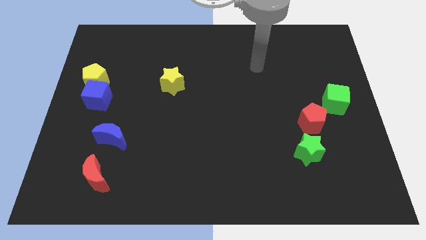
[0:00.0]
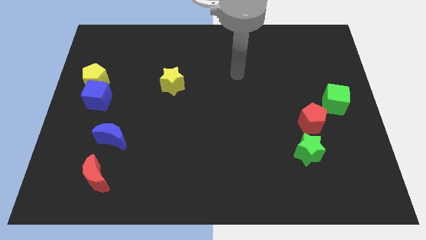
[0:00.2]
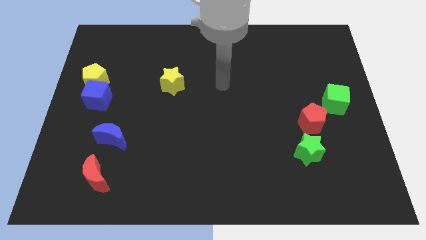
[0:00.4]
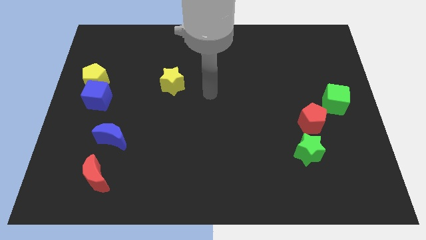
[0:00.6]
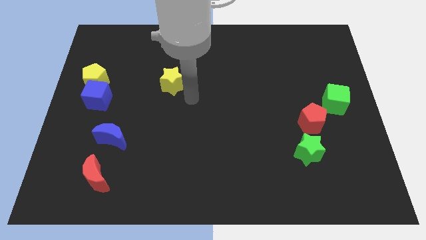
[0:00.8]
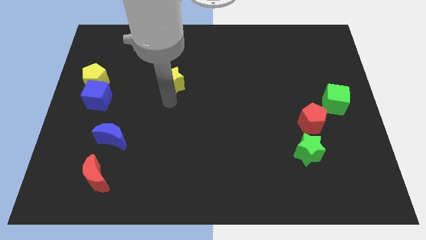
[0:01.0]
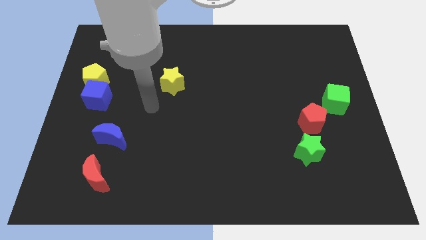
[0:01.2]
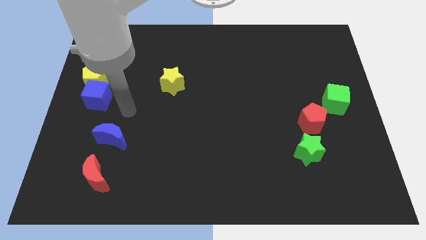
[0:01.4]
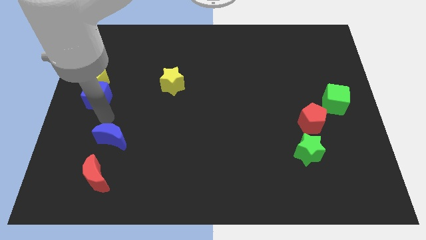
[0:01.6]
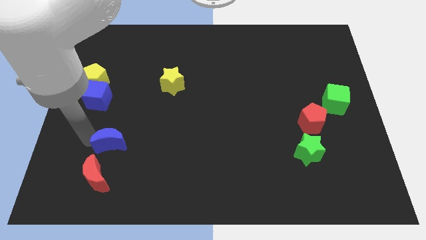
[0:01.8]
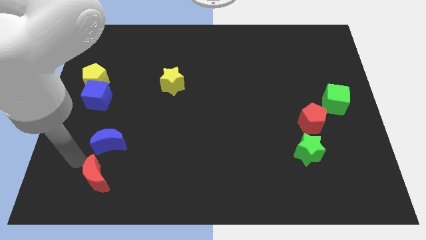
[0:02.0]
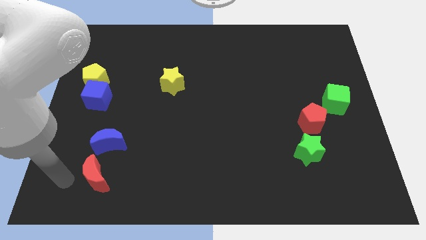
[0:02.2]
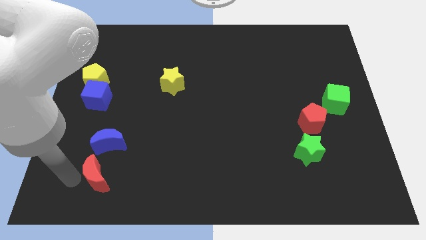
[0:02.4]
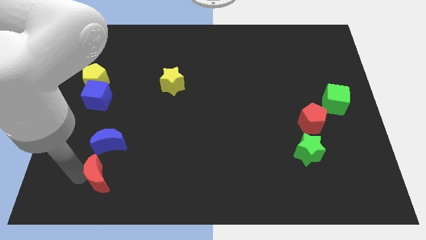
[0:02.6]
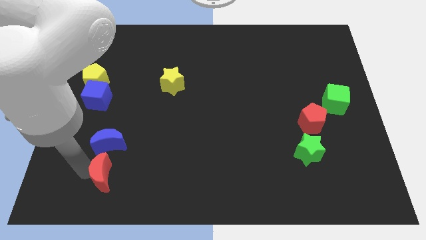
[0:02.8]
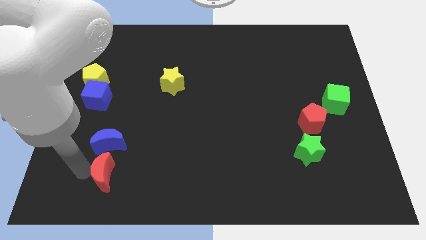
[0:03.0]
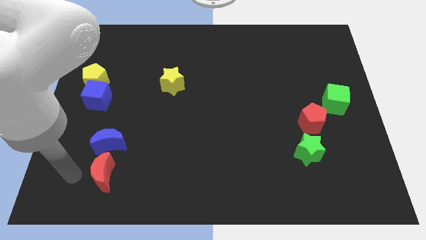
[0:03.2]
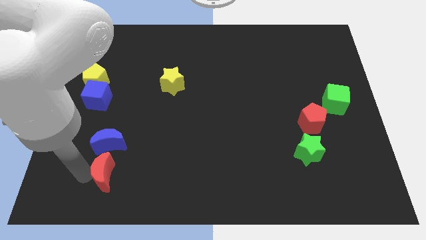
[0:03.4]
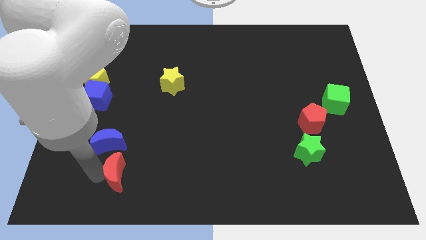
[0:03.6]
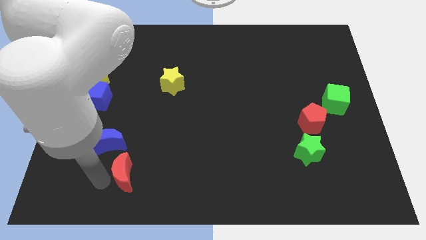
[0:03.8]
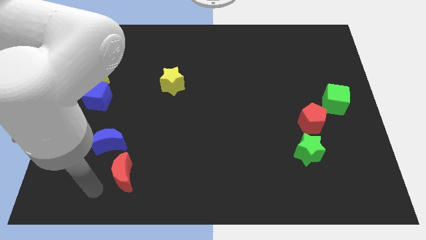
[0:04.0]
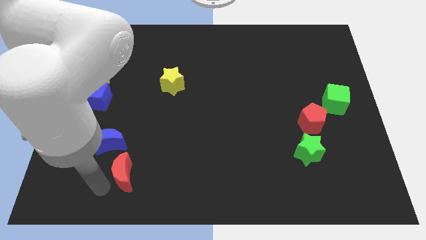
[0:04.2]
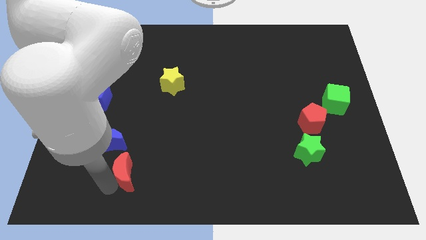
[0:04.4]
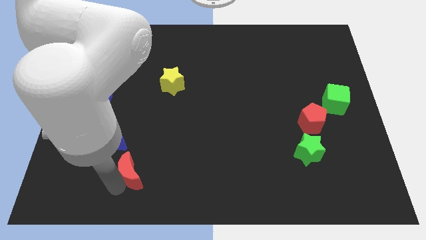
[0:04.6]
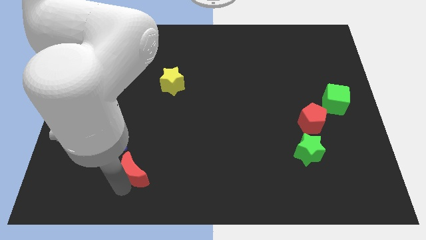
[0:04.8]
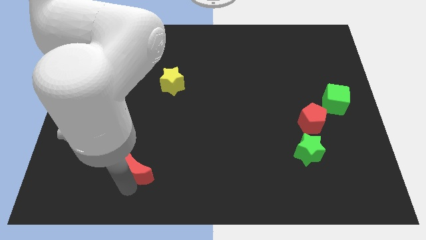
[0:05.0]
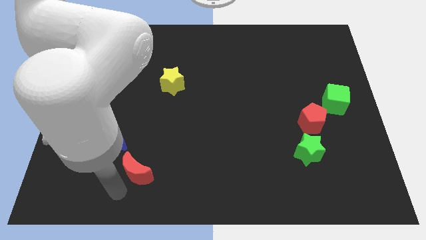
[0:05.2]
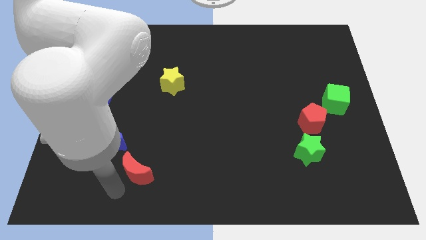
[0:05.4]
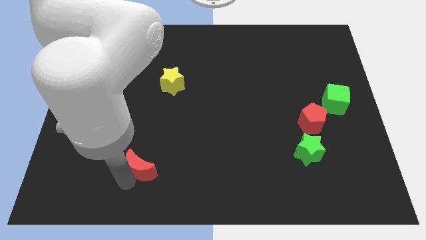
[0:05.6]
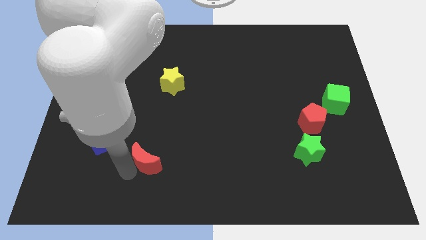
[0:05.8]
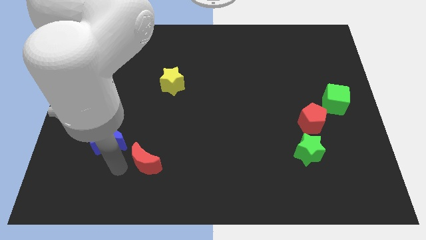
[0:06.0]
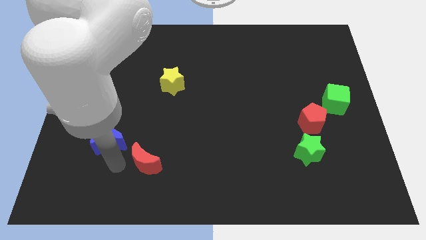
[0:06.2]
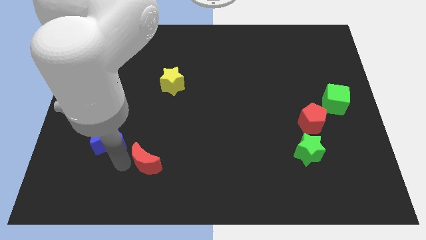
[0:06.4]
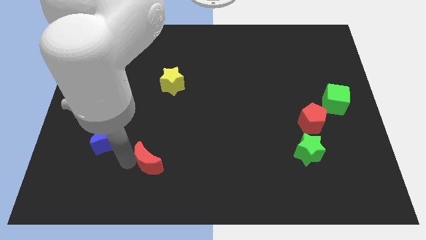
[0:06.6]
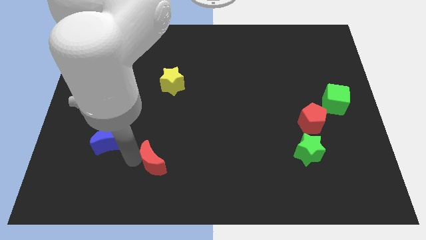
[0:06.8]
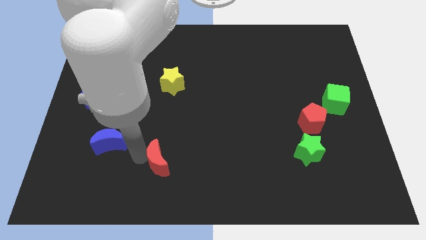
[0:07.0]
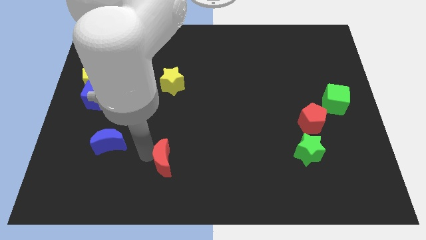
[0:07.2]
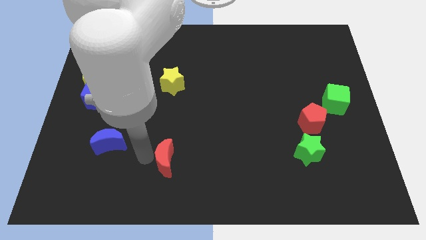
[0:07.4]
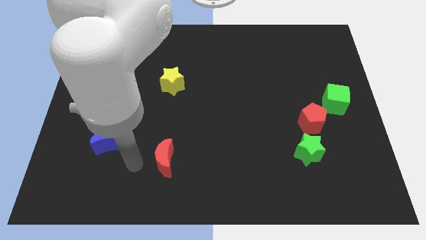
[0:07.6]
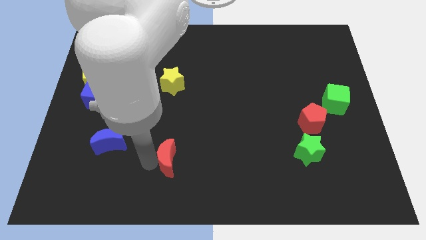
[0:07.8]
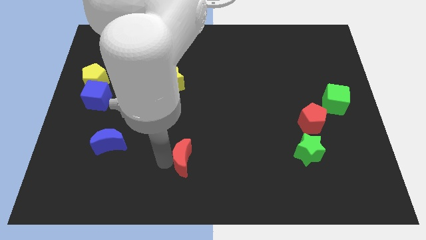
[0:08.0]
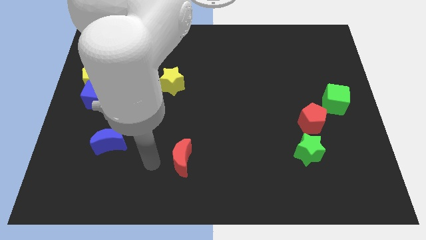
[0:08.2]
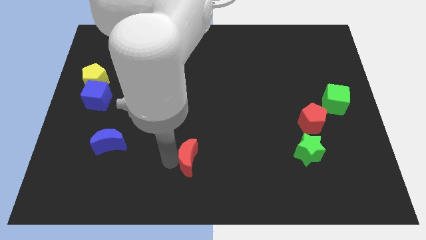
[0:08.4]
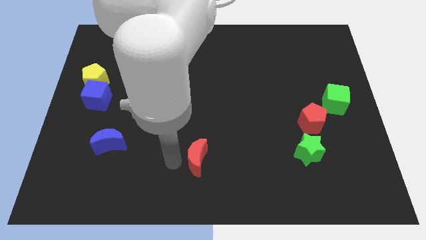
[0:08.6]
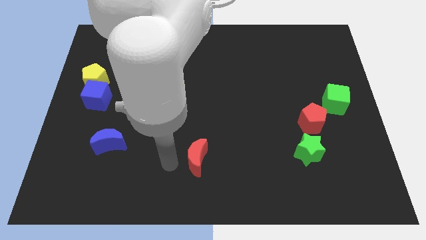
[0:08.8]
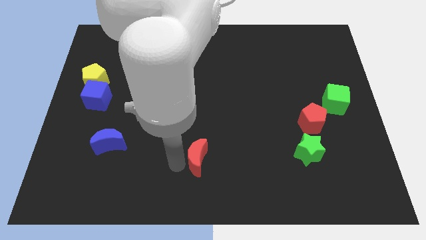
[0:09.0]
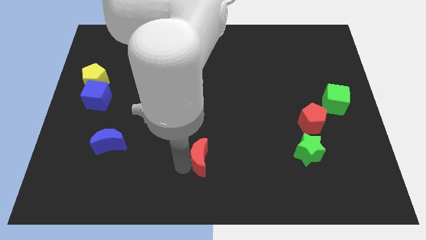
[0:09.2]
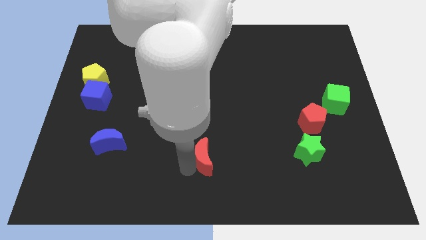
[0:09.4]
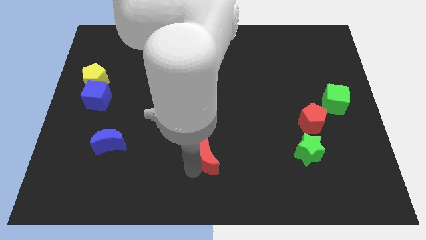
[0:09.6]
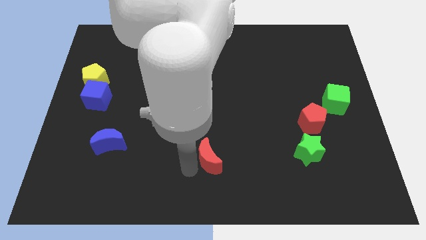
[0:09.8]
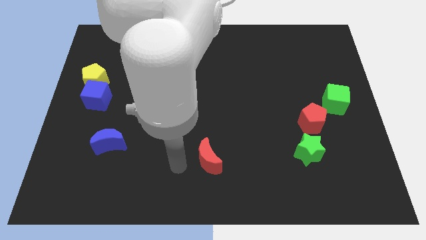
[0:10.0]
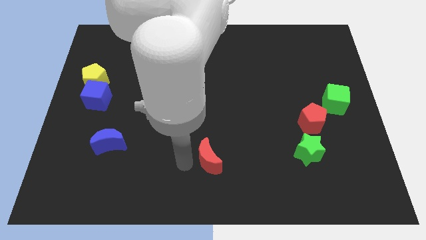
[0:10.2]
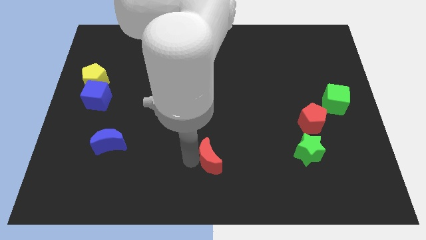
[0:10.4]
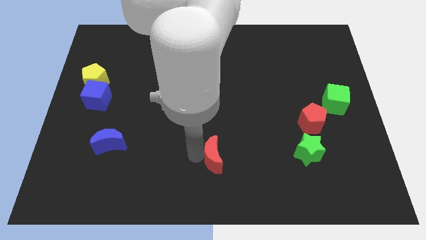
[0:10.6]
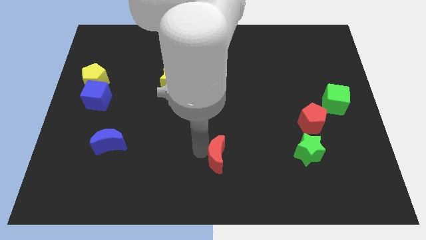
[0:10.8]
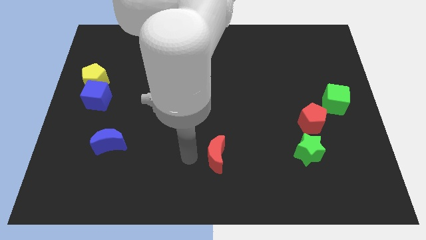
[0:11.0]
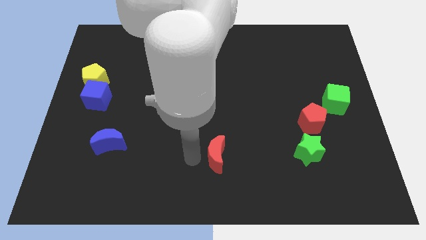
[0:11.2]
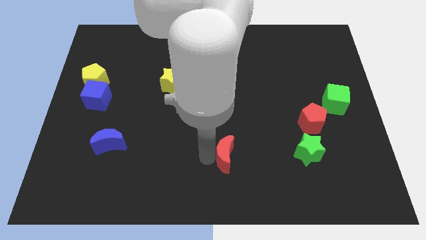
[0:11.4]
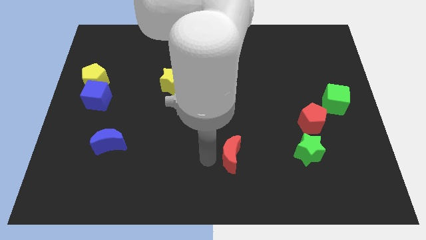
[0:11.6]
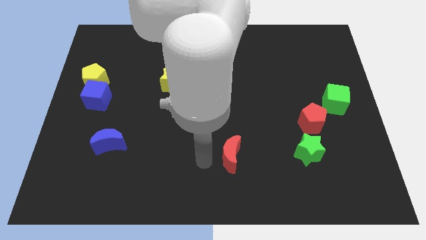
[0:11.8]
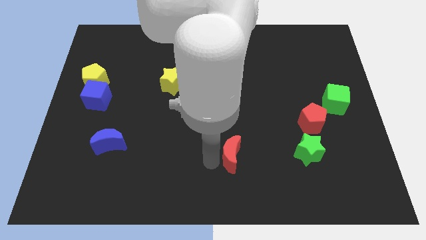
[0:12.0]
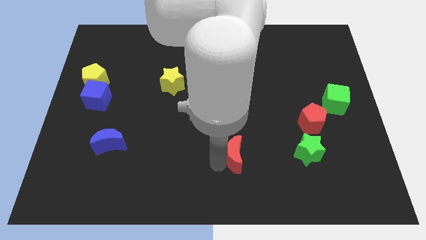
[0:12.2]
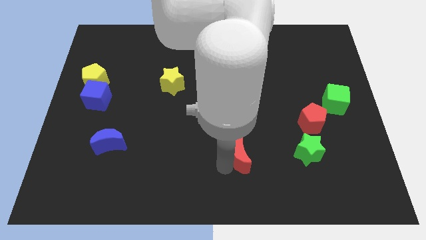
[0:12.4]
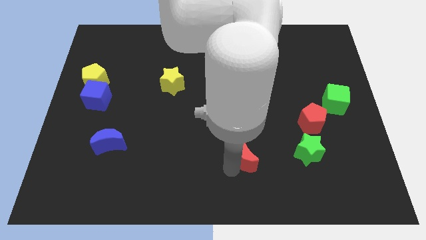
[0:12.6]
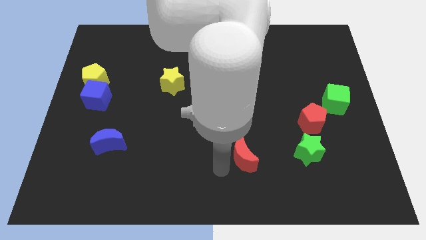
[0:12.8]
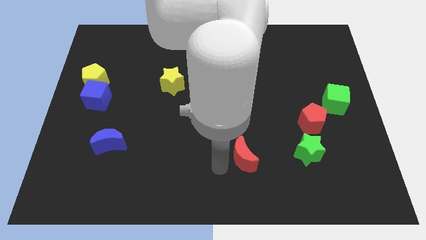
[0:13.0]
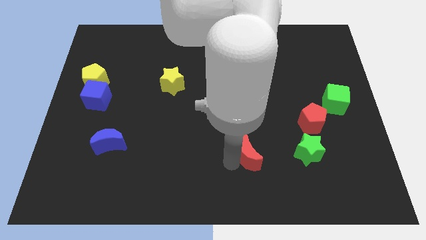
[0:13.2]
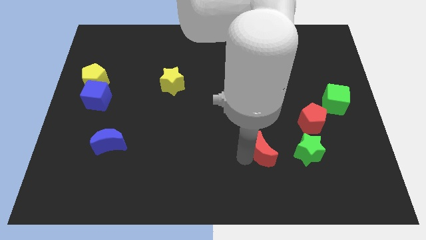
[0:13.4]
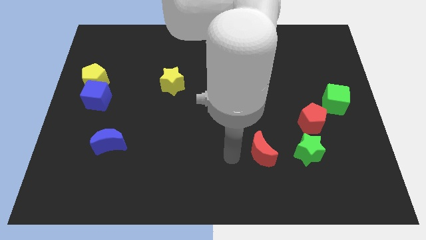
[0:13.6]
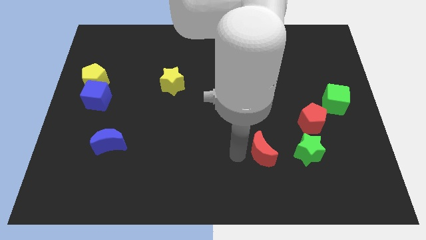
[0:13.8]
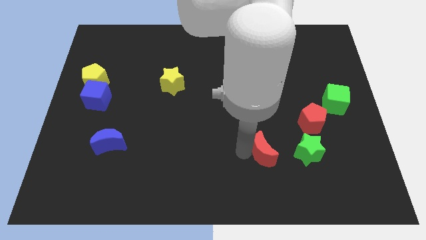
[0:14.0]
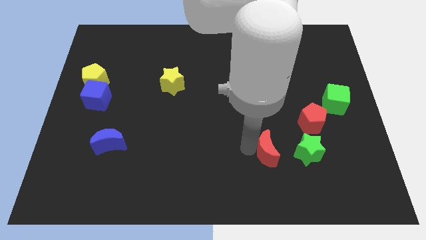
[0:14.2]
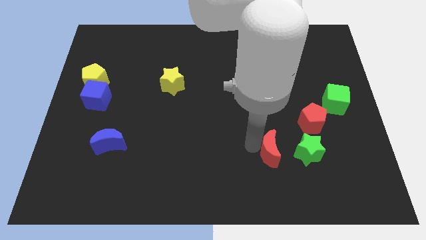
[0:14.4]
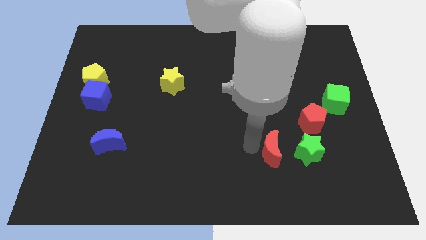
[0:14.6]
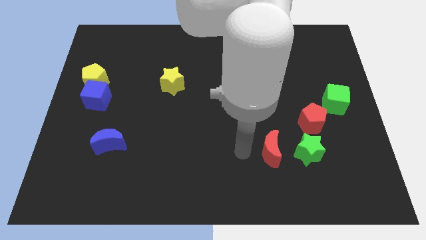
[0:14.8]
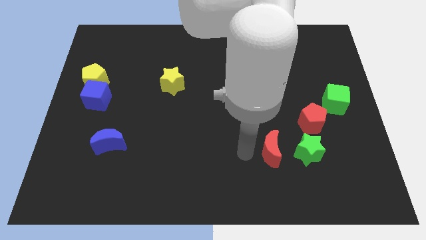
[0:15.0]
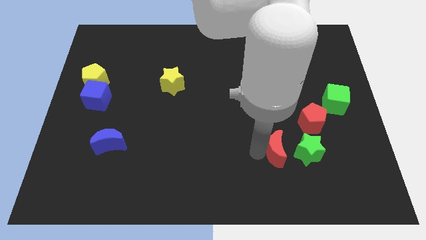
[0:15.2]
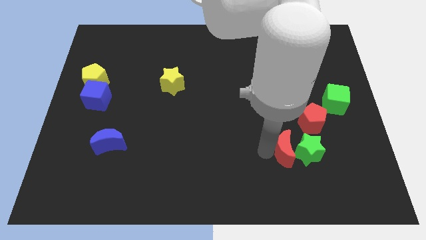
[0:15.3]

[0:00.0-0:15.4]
move the red moon towards the green star
